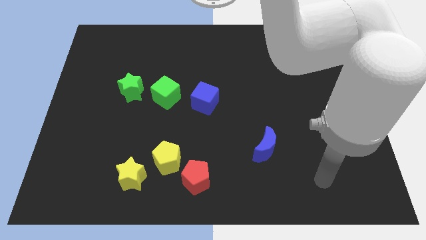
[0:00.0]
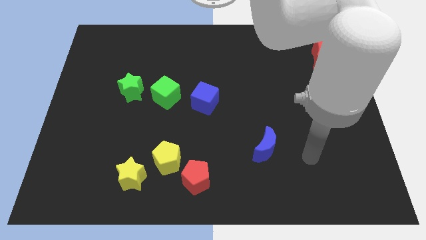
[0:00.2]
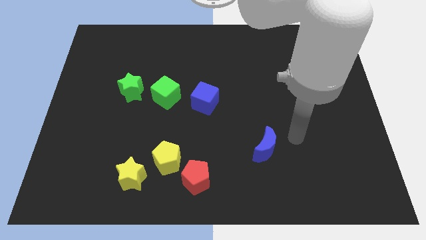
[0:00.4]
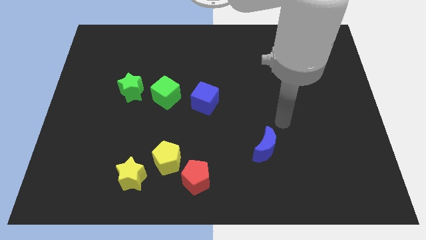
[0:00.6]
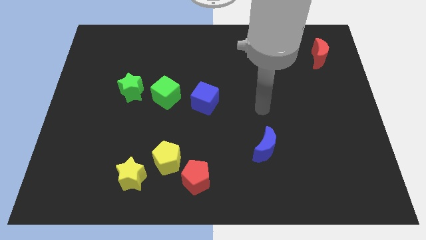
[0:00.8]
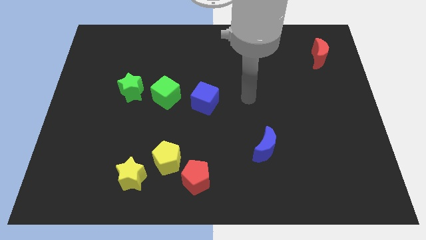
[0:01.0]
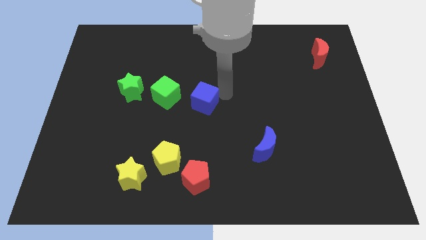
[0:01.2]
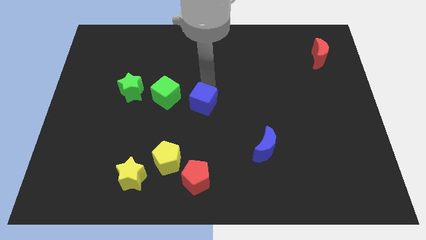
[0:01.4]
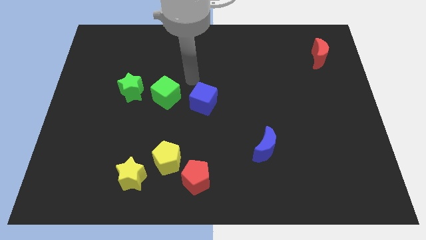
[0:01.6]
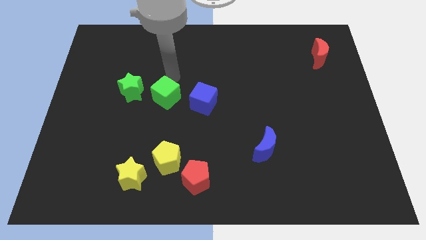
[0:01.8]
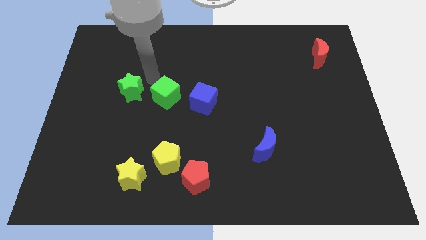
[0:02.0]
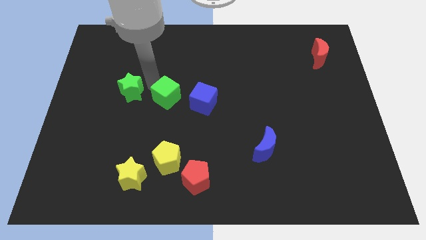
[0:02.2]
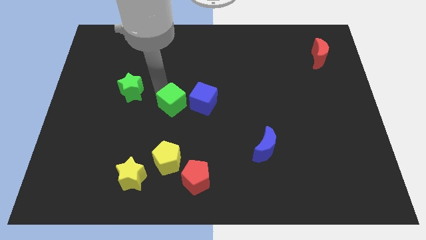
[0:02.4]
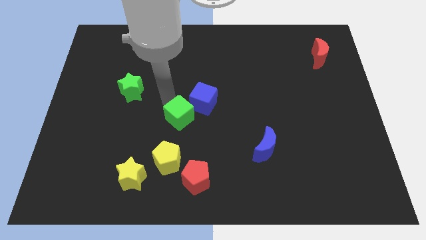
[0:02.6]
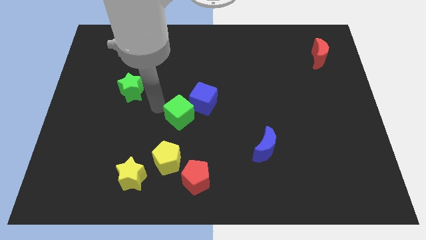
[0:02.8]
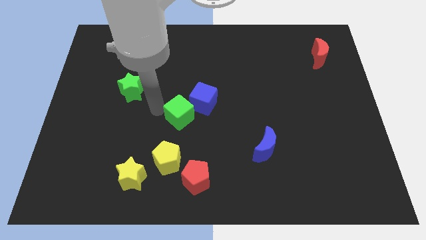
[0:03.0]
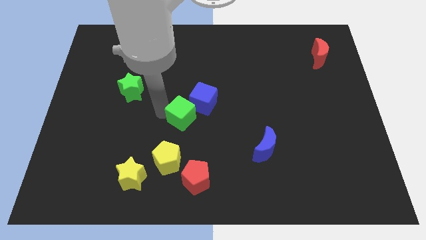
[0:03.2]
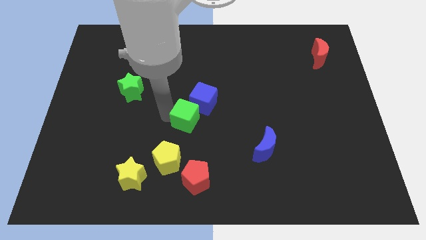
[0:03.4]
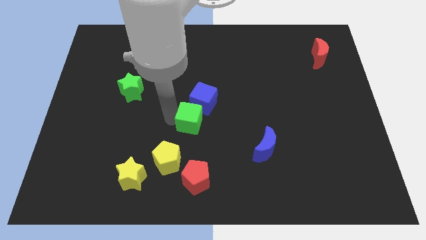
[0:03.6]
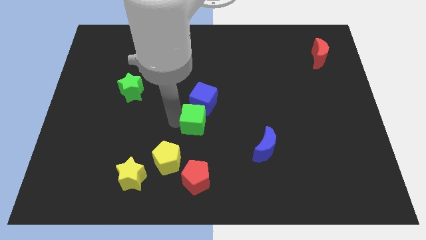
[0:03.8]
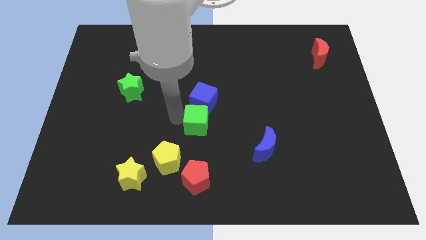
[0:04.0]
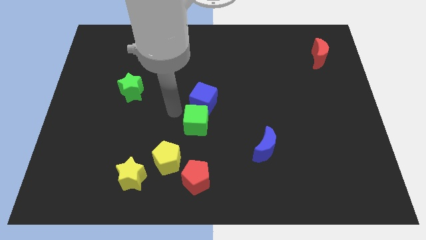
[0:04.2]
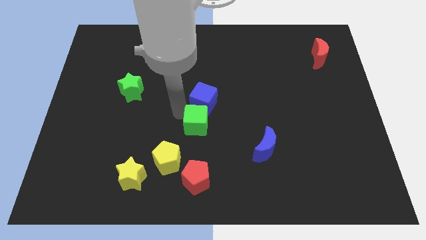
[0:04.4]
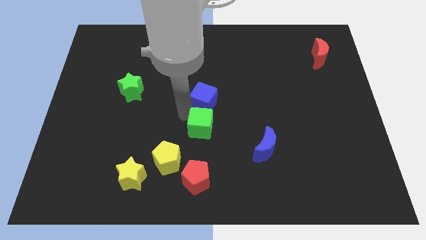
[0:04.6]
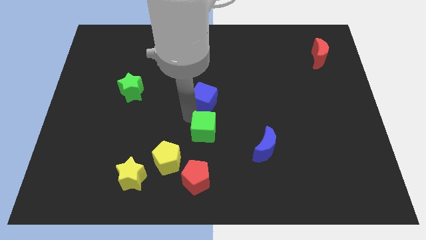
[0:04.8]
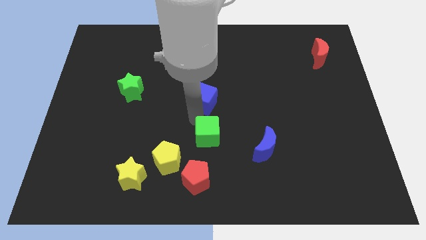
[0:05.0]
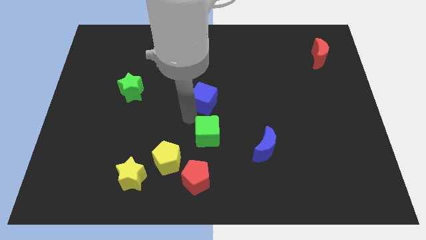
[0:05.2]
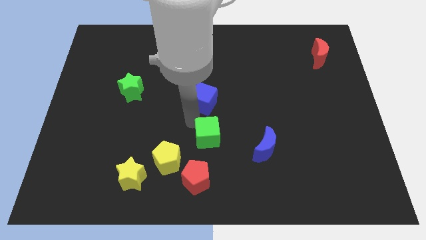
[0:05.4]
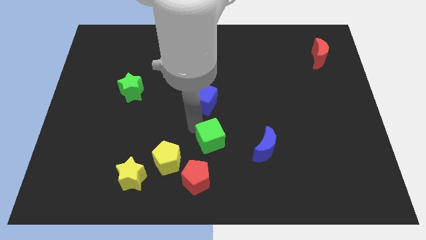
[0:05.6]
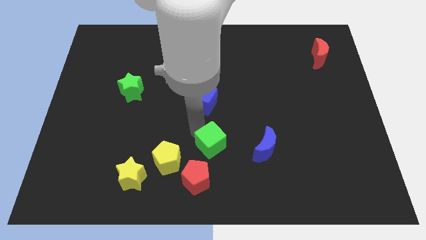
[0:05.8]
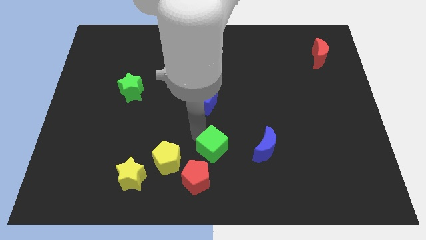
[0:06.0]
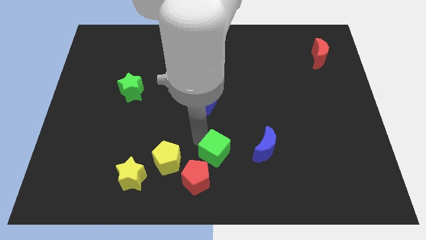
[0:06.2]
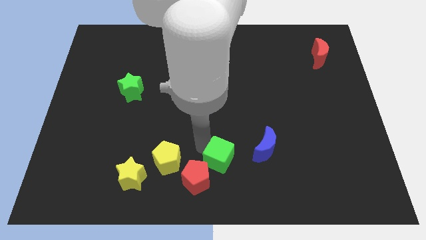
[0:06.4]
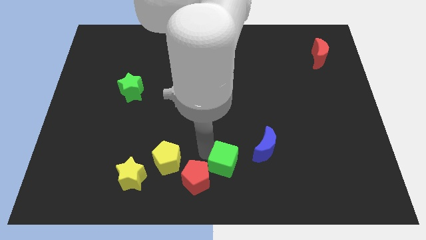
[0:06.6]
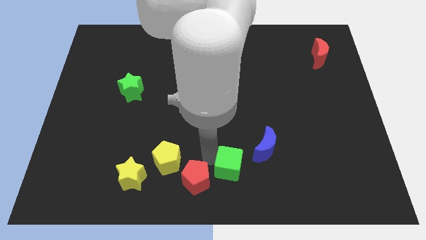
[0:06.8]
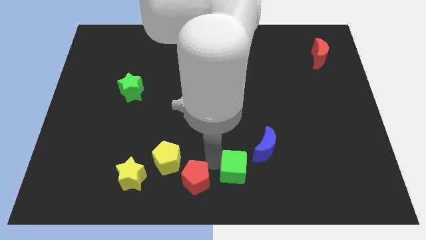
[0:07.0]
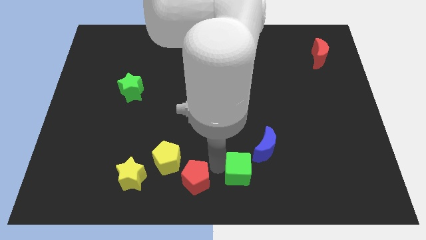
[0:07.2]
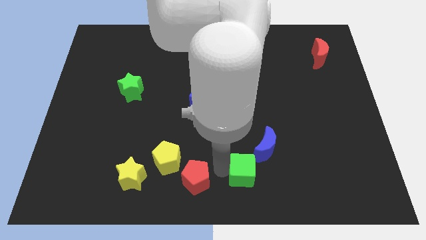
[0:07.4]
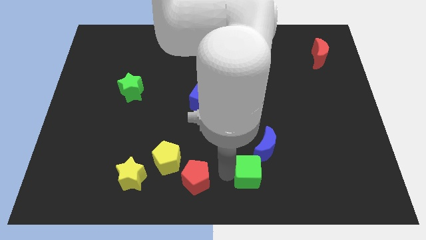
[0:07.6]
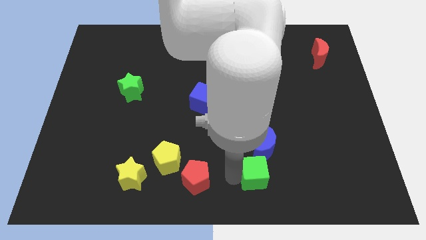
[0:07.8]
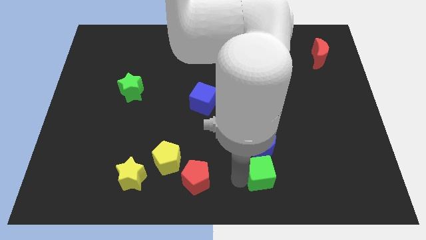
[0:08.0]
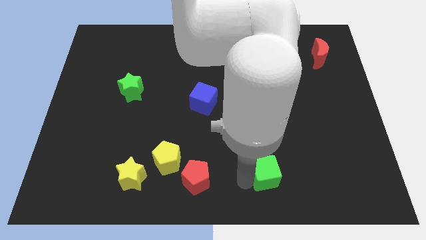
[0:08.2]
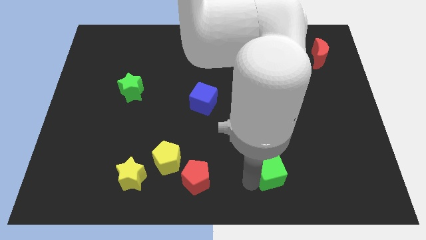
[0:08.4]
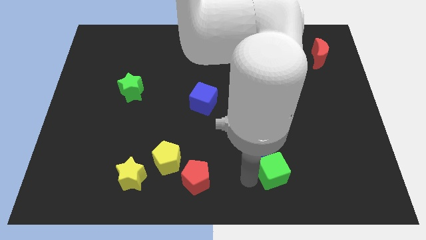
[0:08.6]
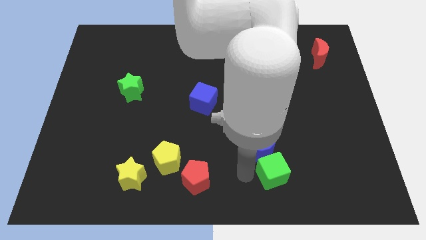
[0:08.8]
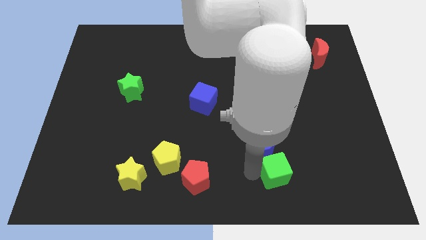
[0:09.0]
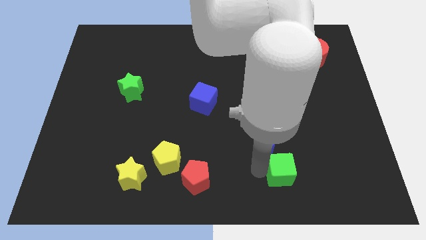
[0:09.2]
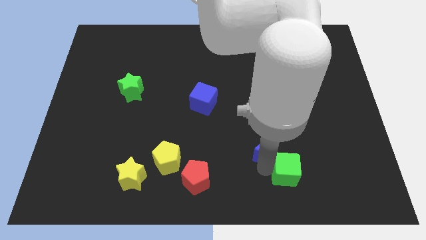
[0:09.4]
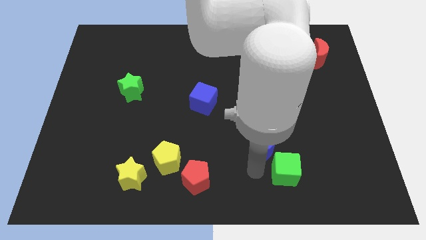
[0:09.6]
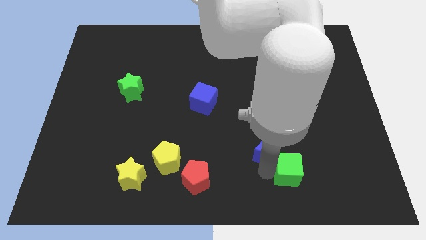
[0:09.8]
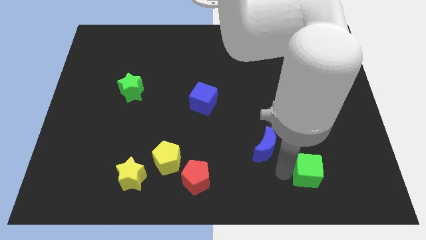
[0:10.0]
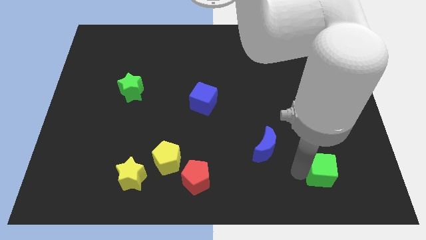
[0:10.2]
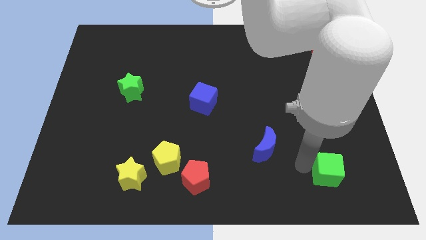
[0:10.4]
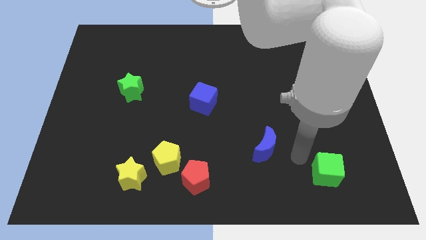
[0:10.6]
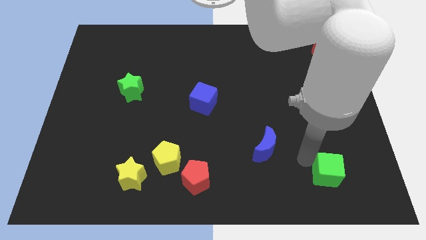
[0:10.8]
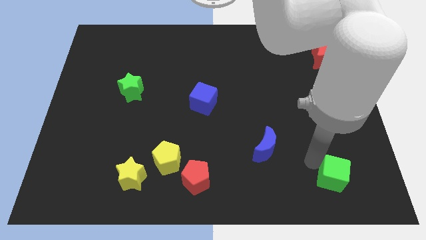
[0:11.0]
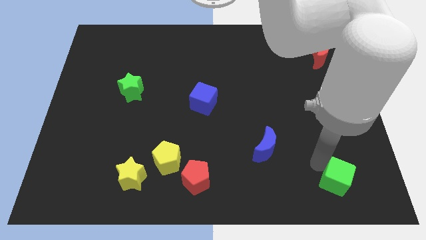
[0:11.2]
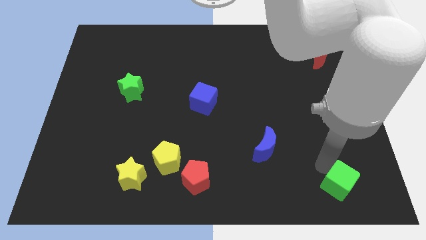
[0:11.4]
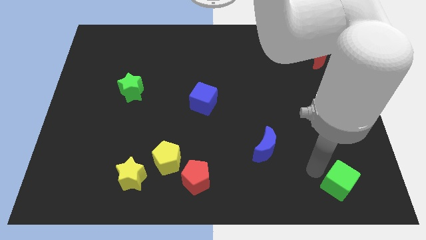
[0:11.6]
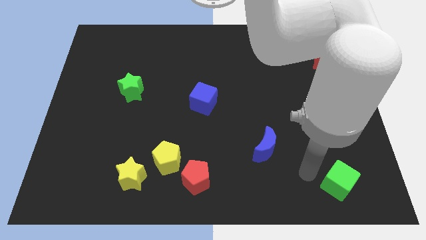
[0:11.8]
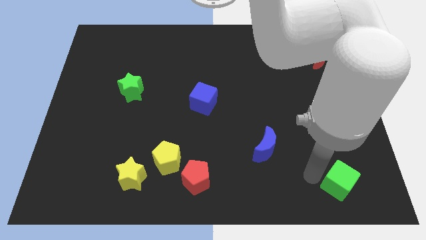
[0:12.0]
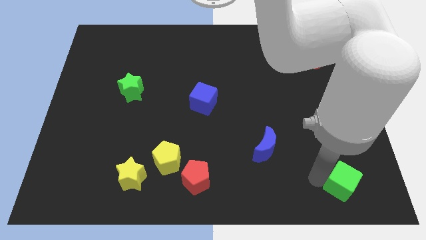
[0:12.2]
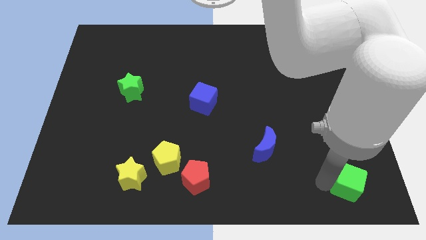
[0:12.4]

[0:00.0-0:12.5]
put the green cube to the bottom right corner

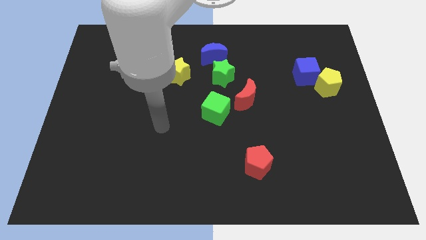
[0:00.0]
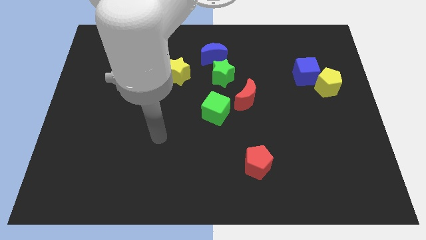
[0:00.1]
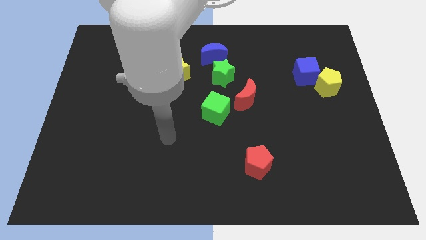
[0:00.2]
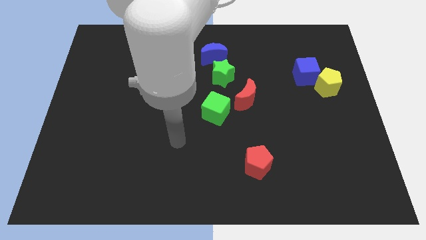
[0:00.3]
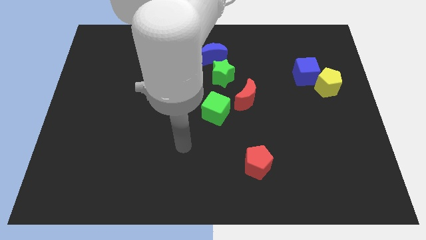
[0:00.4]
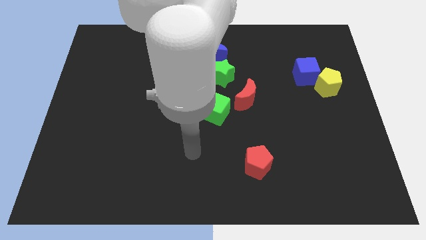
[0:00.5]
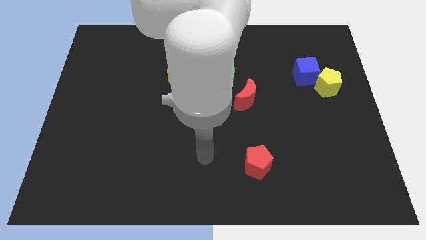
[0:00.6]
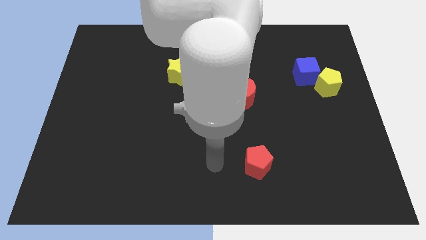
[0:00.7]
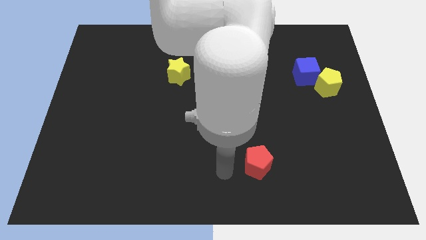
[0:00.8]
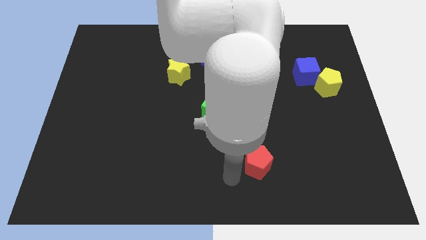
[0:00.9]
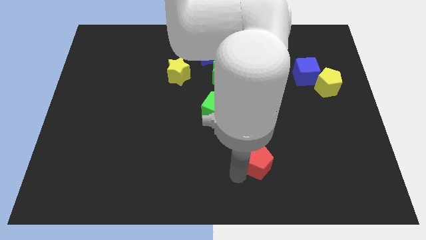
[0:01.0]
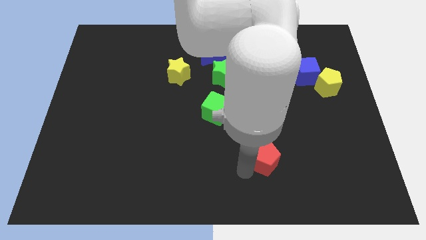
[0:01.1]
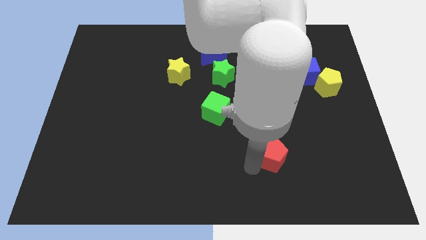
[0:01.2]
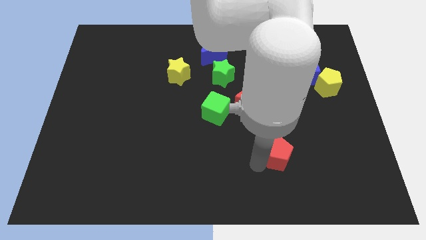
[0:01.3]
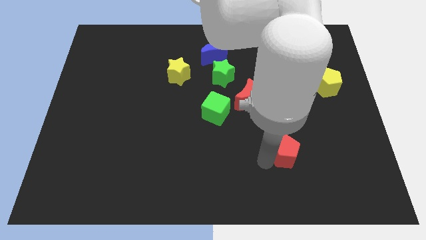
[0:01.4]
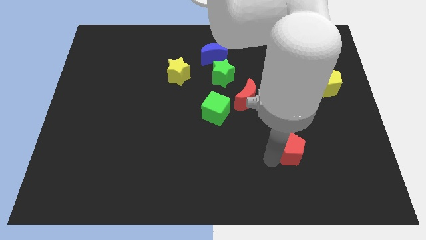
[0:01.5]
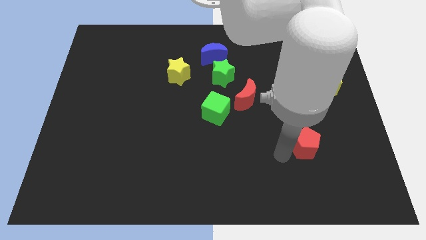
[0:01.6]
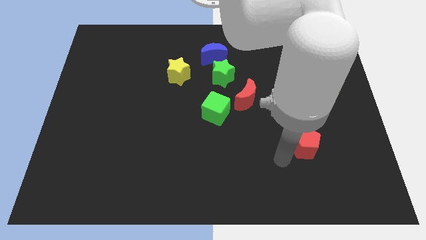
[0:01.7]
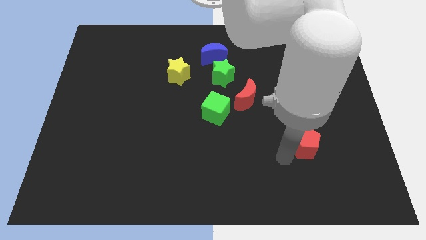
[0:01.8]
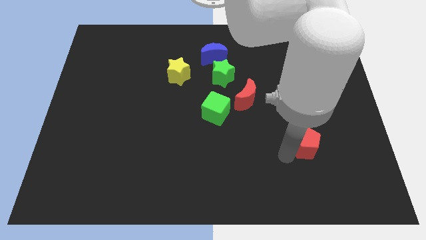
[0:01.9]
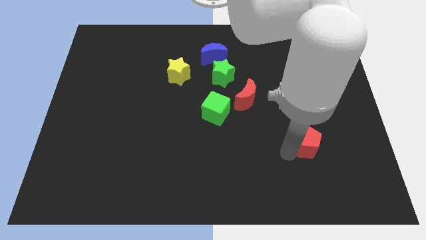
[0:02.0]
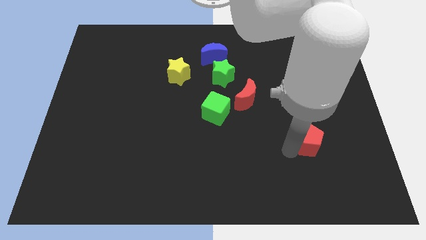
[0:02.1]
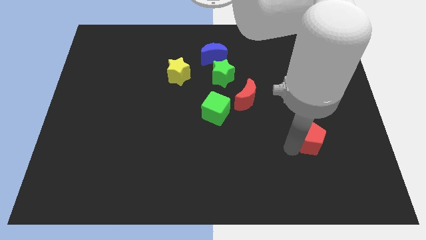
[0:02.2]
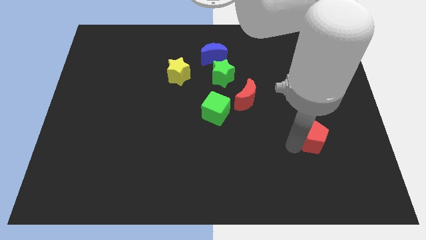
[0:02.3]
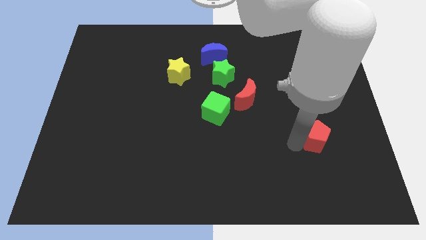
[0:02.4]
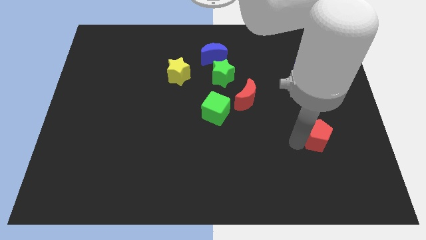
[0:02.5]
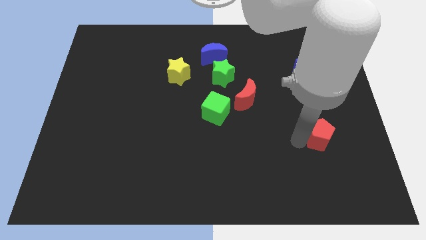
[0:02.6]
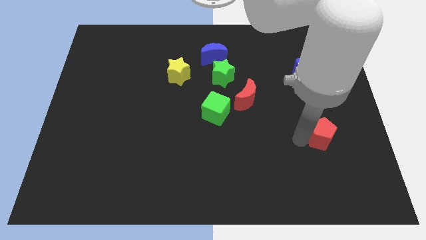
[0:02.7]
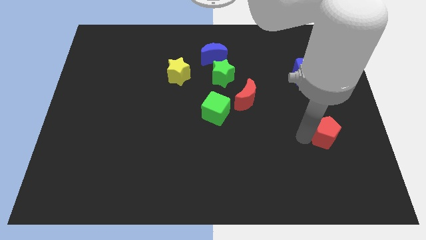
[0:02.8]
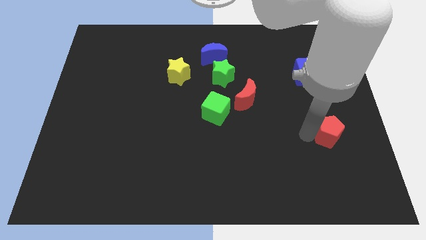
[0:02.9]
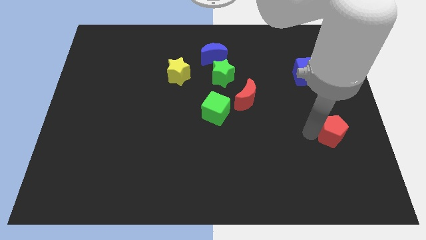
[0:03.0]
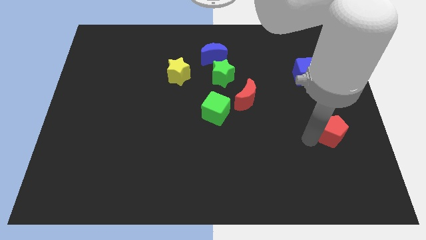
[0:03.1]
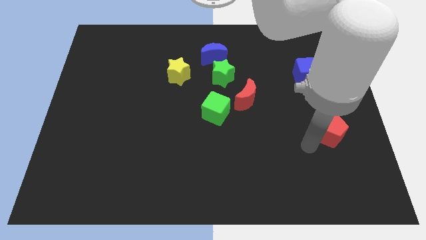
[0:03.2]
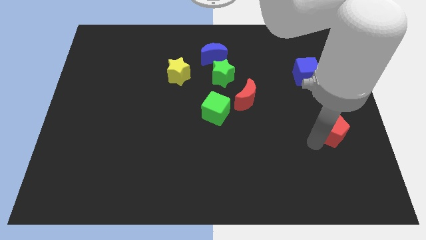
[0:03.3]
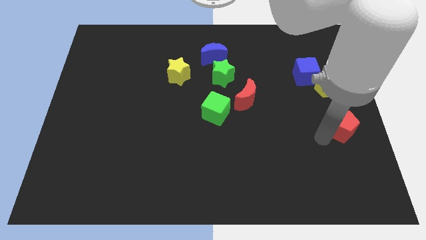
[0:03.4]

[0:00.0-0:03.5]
move the red pentagon to the center right
